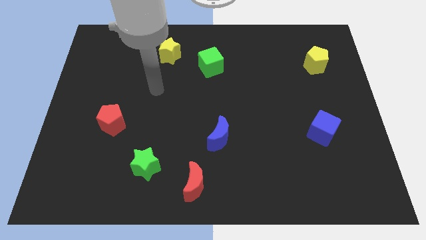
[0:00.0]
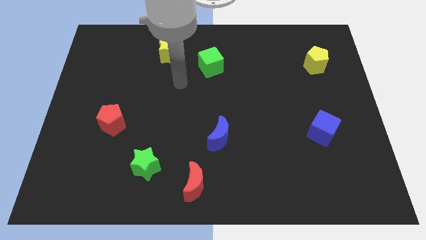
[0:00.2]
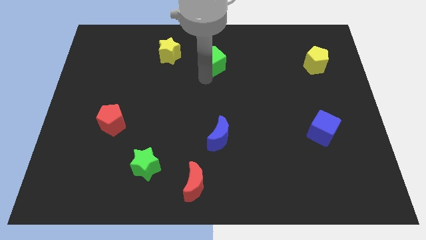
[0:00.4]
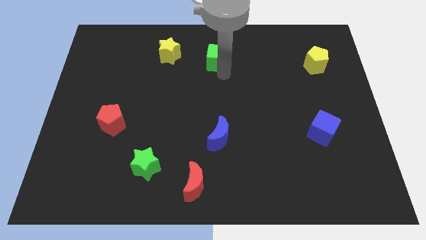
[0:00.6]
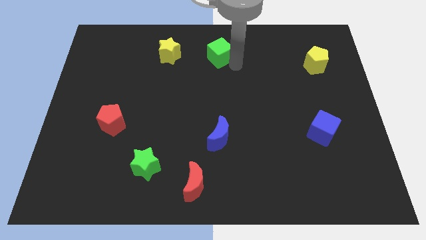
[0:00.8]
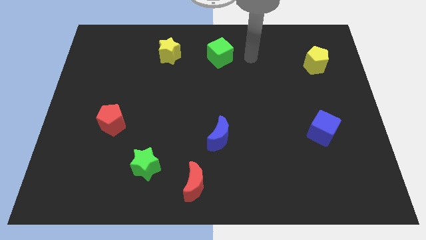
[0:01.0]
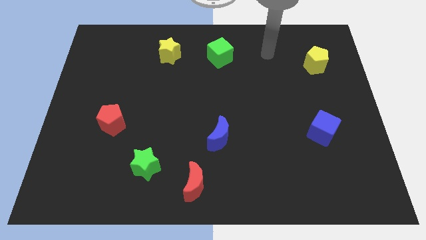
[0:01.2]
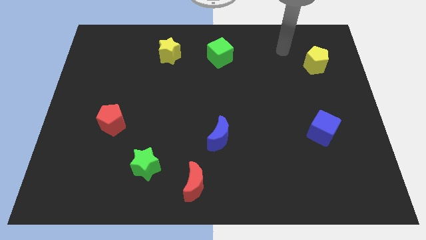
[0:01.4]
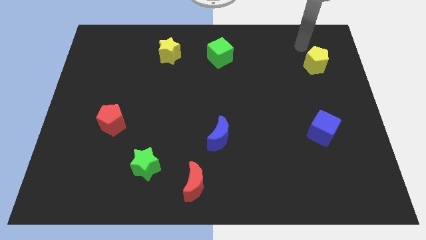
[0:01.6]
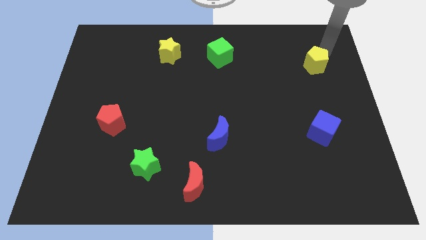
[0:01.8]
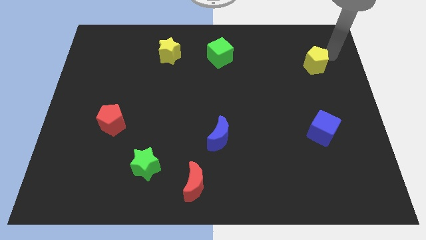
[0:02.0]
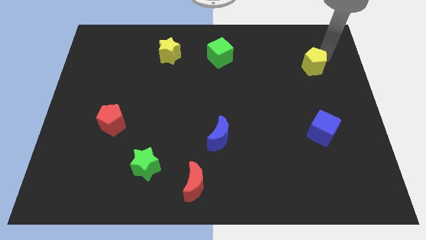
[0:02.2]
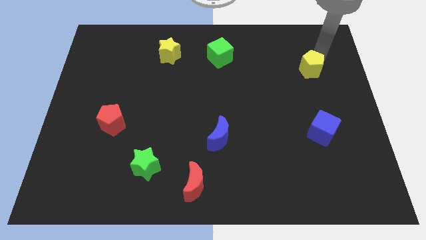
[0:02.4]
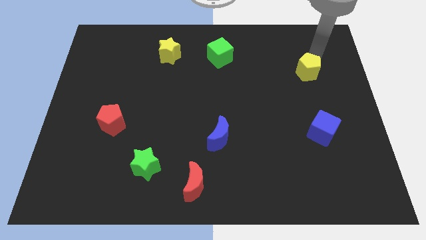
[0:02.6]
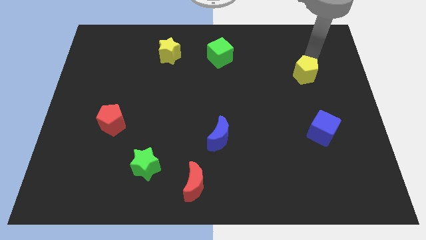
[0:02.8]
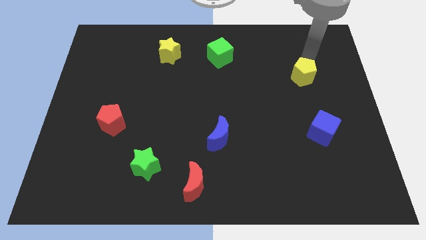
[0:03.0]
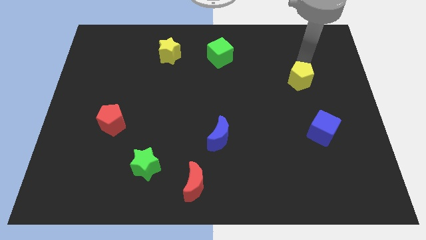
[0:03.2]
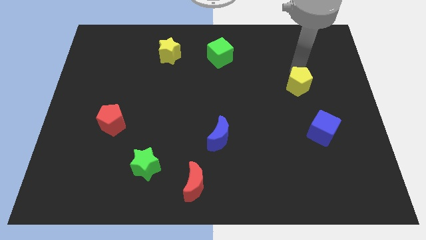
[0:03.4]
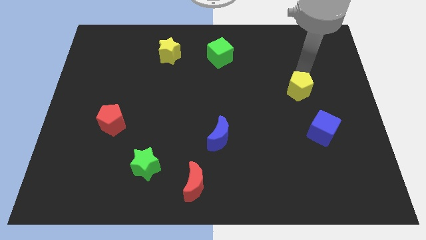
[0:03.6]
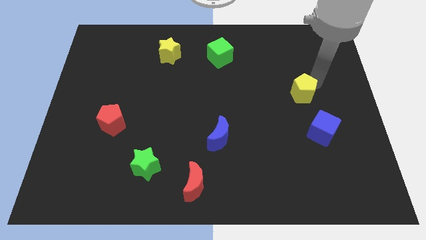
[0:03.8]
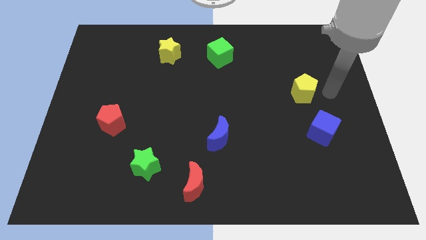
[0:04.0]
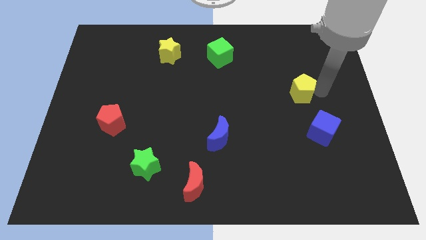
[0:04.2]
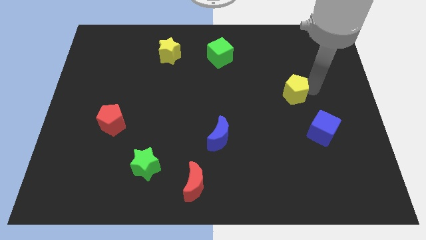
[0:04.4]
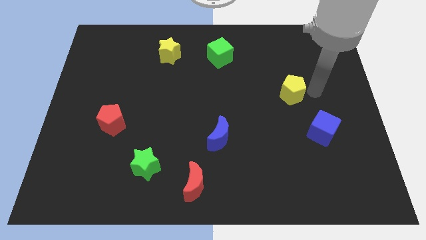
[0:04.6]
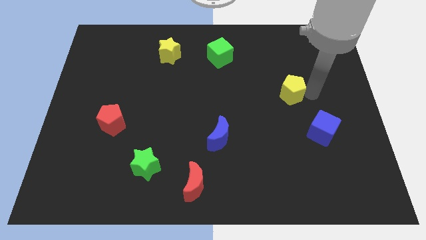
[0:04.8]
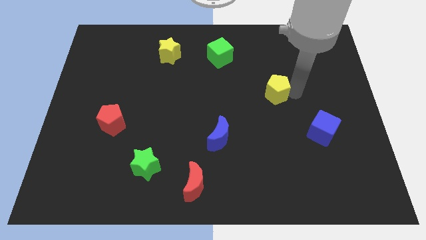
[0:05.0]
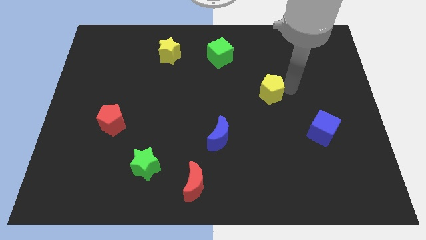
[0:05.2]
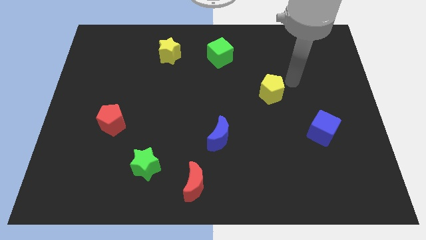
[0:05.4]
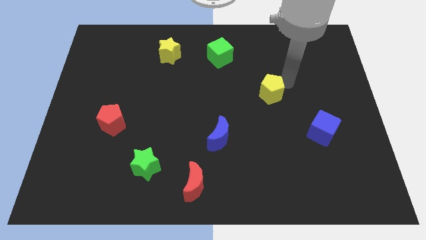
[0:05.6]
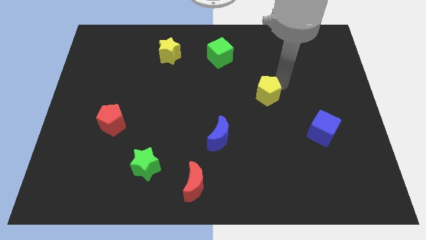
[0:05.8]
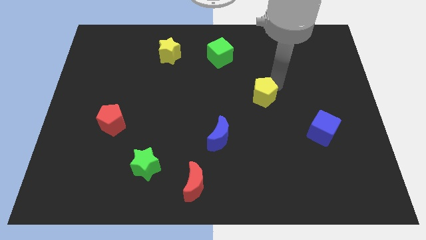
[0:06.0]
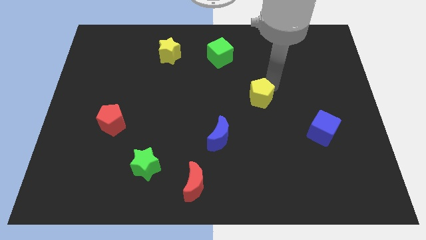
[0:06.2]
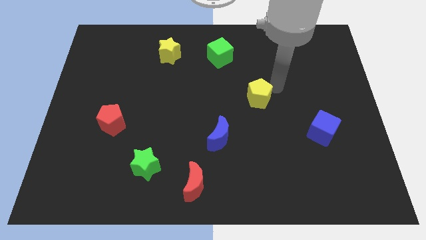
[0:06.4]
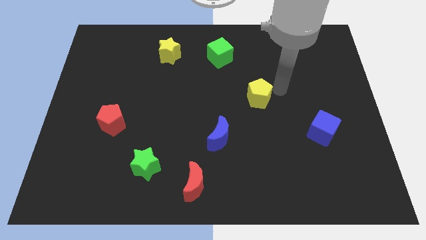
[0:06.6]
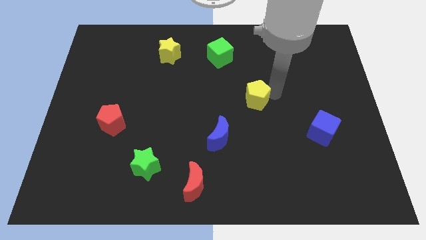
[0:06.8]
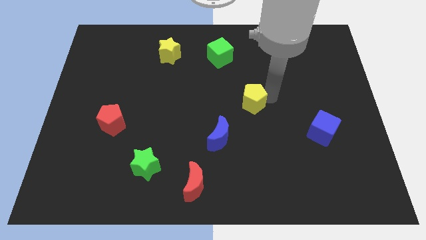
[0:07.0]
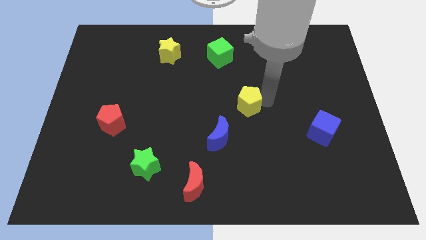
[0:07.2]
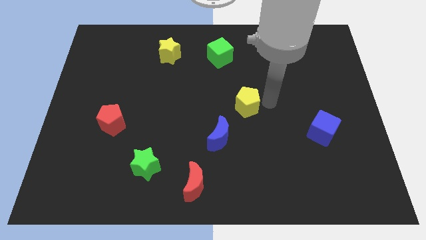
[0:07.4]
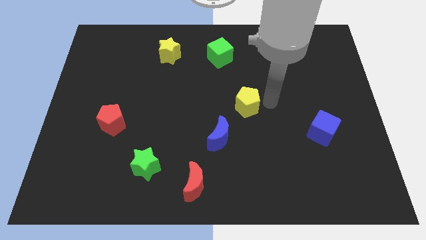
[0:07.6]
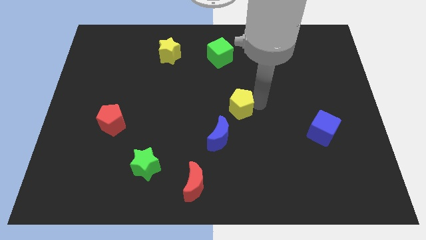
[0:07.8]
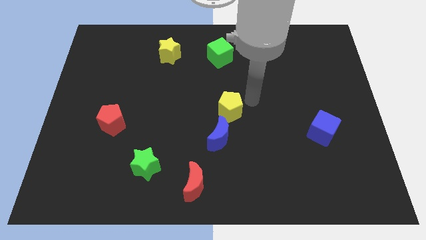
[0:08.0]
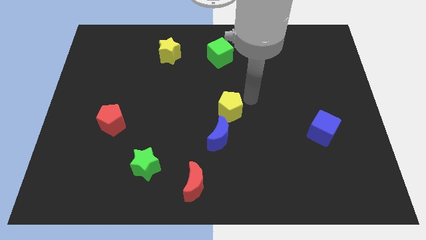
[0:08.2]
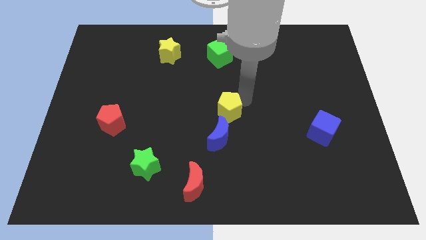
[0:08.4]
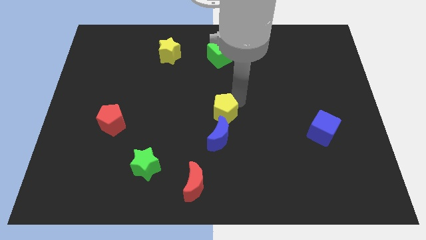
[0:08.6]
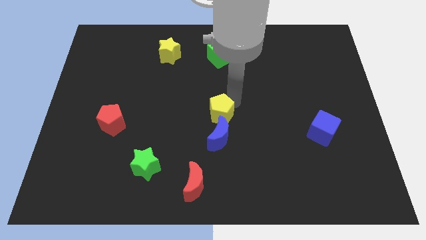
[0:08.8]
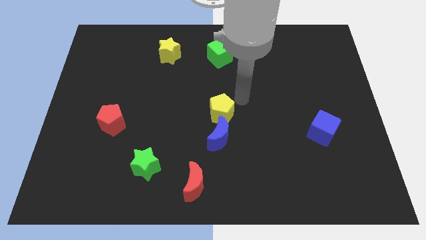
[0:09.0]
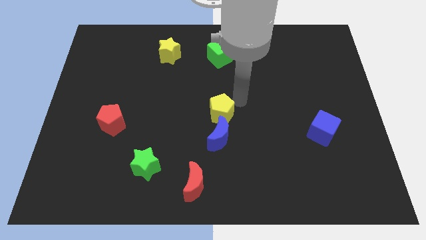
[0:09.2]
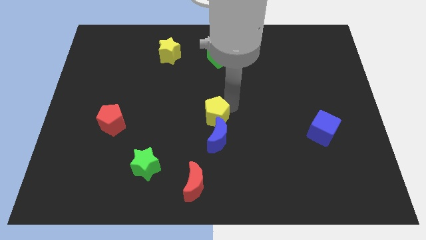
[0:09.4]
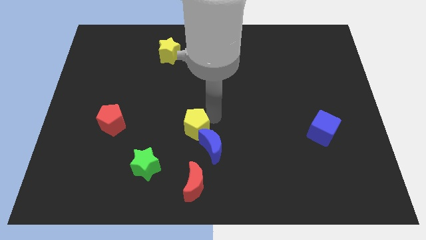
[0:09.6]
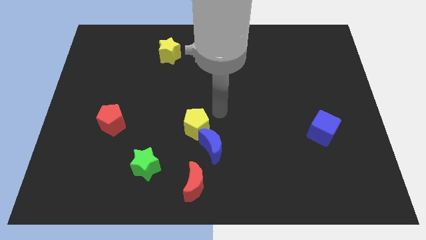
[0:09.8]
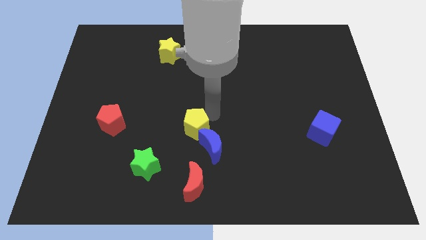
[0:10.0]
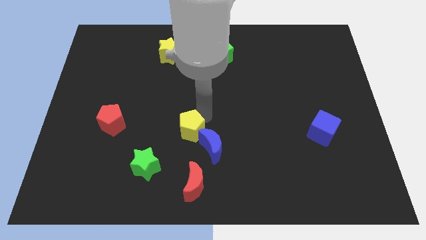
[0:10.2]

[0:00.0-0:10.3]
push the yellow pentagon left of the blue moon

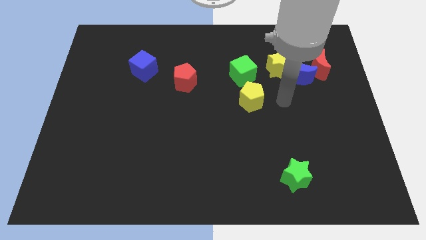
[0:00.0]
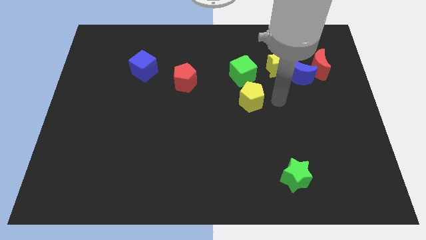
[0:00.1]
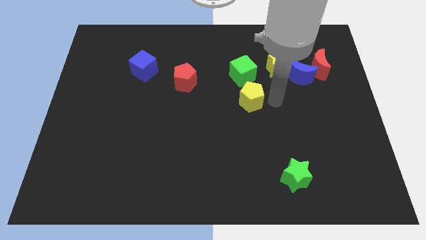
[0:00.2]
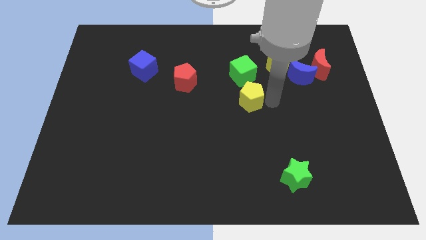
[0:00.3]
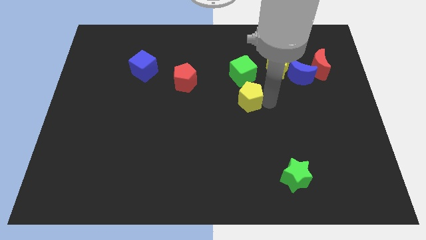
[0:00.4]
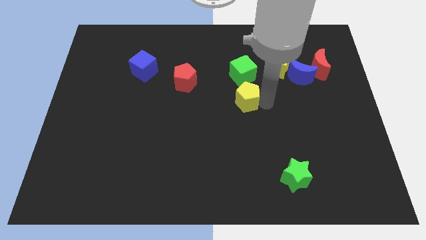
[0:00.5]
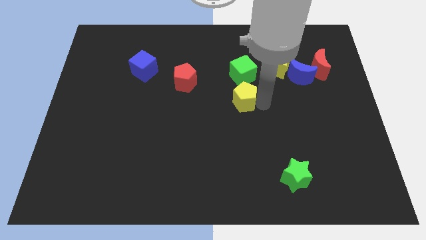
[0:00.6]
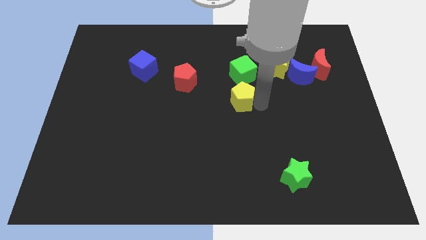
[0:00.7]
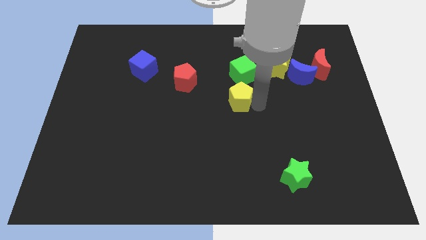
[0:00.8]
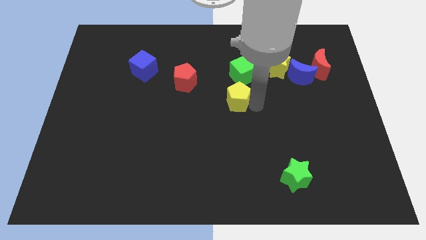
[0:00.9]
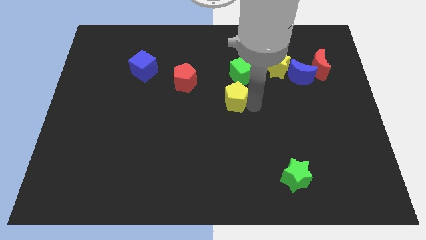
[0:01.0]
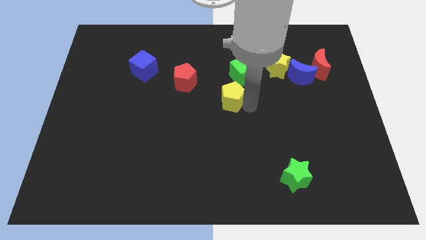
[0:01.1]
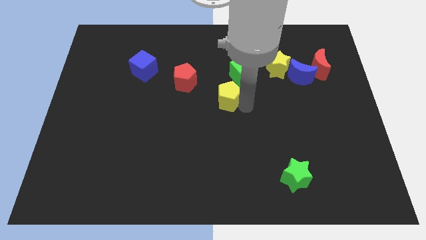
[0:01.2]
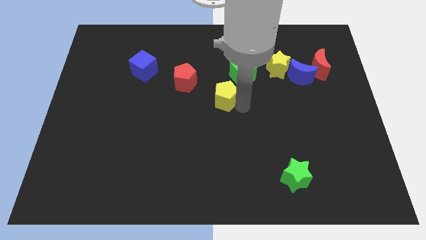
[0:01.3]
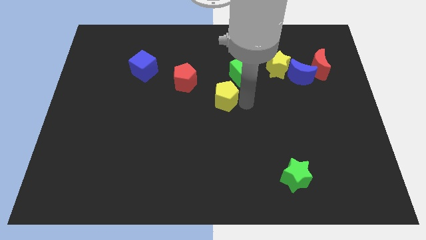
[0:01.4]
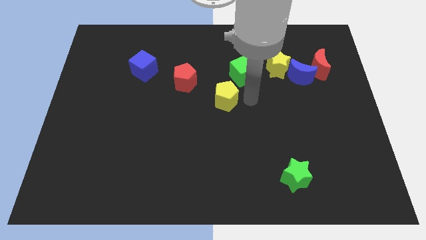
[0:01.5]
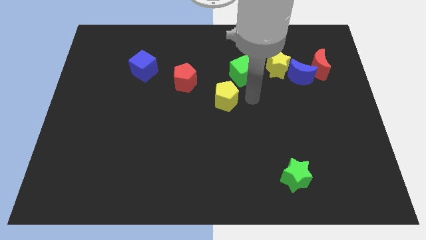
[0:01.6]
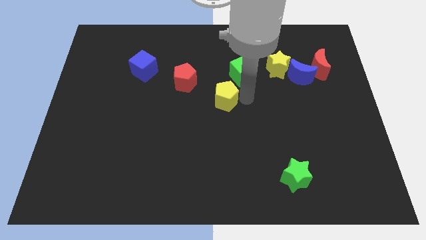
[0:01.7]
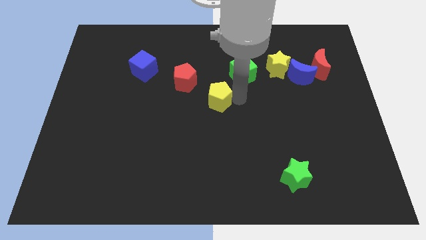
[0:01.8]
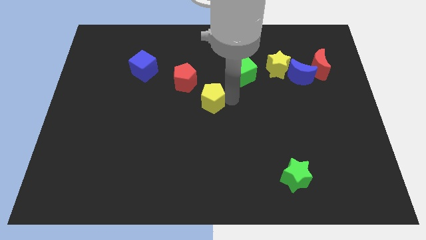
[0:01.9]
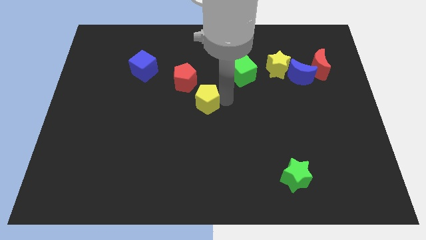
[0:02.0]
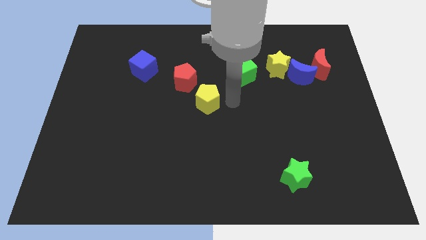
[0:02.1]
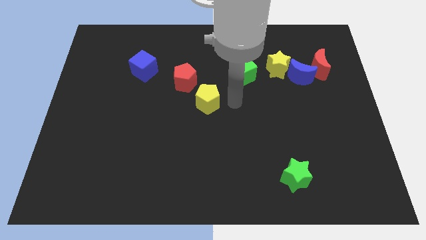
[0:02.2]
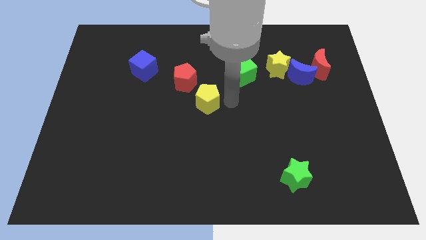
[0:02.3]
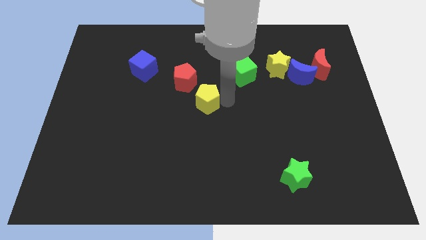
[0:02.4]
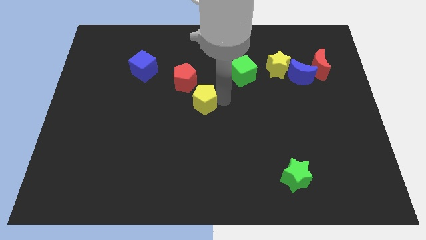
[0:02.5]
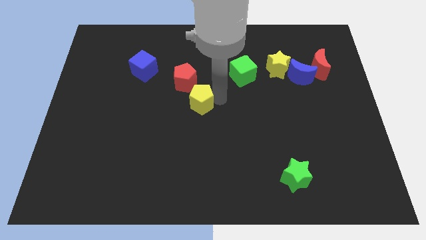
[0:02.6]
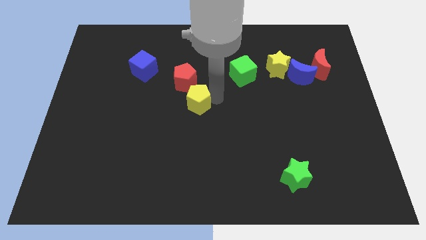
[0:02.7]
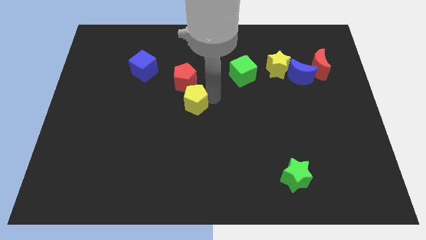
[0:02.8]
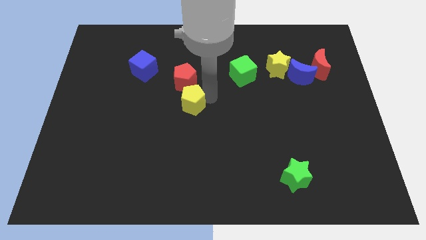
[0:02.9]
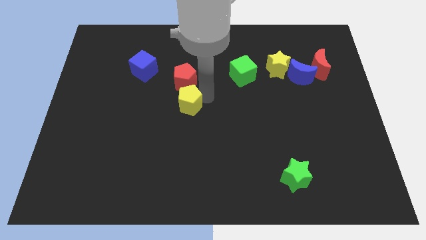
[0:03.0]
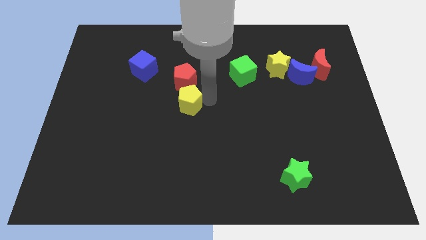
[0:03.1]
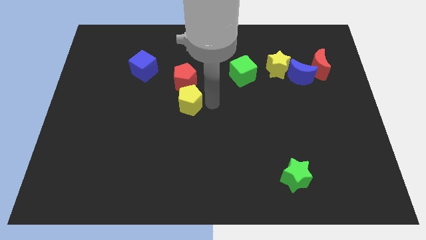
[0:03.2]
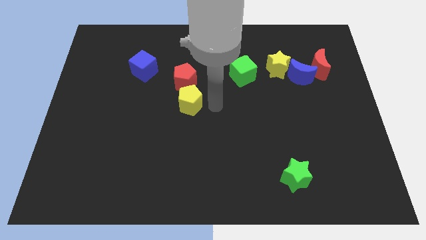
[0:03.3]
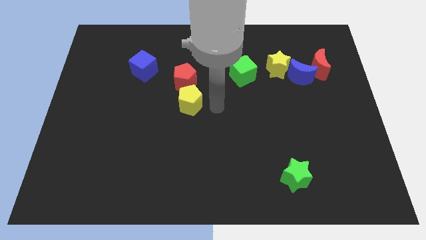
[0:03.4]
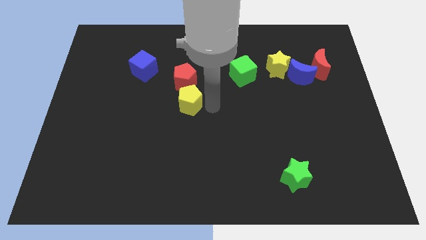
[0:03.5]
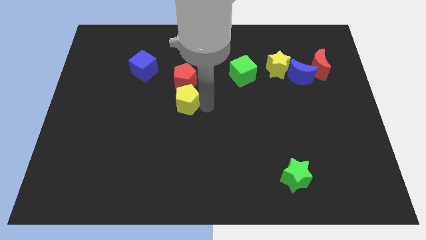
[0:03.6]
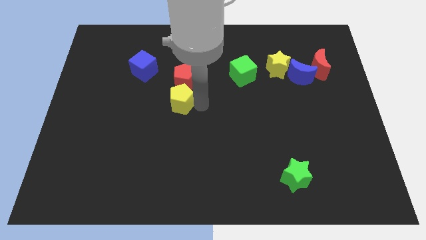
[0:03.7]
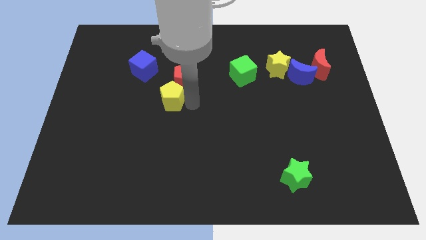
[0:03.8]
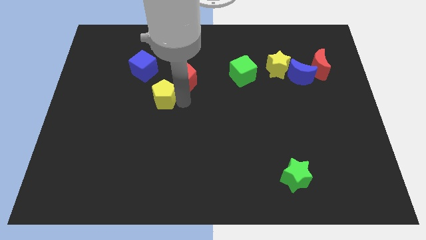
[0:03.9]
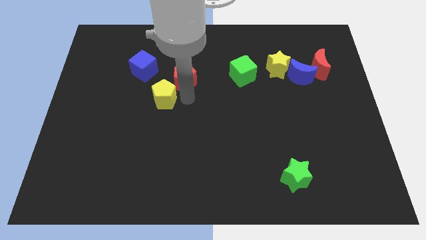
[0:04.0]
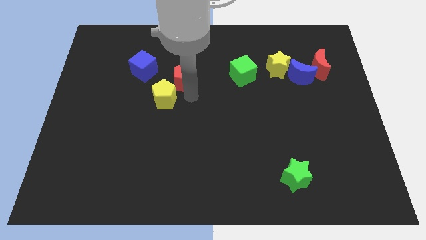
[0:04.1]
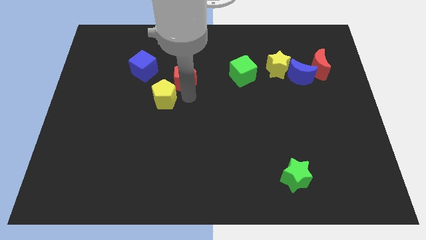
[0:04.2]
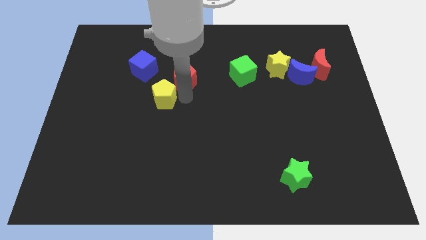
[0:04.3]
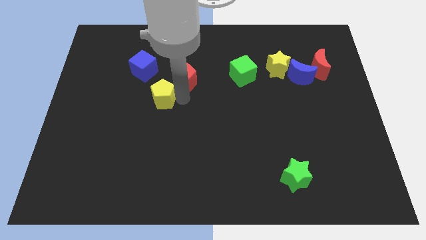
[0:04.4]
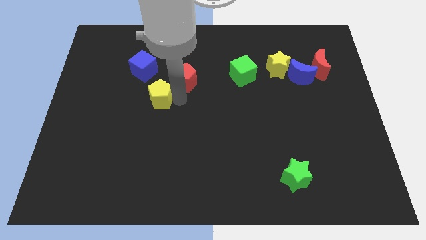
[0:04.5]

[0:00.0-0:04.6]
slide the yellow pentagon to the bottom side of the blue cube
